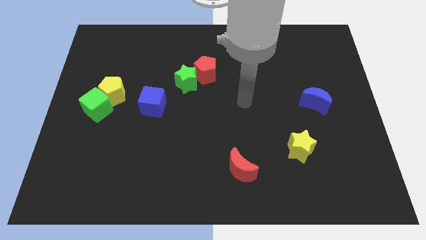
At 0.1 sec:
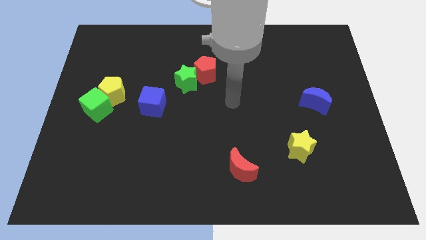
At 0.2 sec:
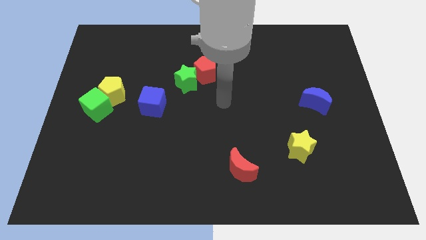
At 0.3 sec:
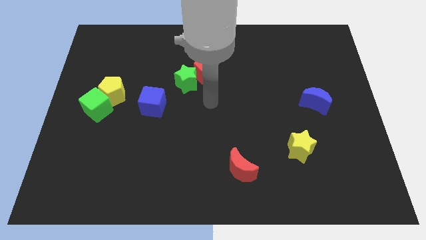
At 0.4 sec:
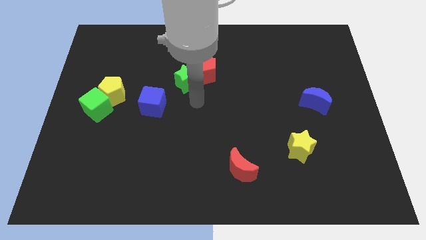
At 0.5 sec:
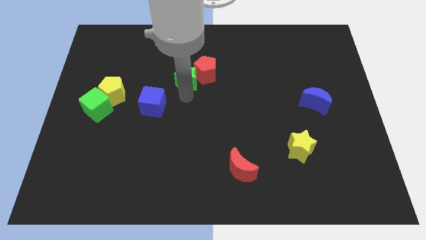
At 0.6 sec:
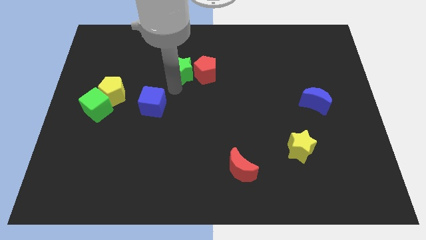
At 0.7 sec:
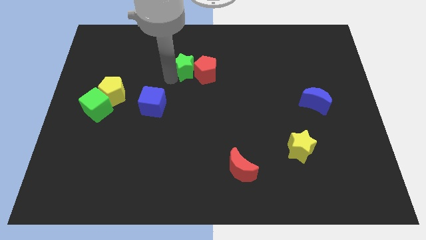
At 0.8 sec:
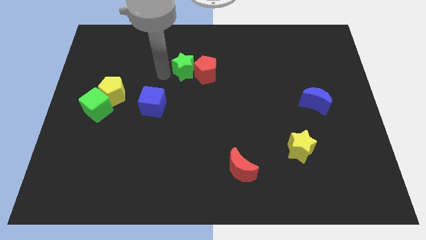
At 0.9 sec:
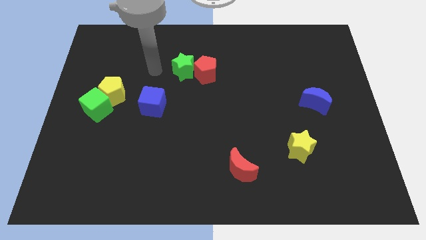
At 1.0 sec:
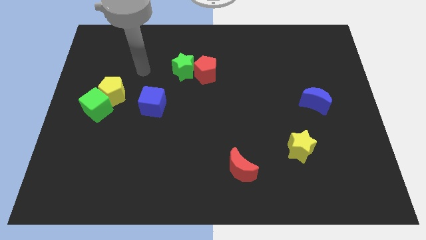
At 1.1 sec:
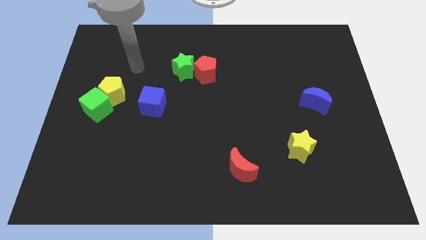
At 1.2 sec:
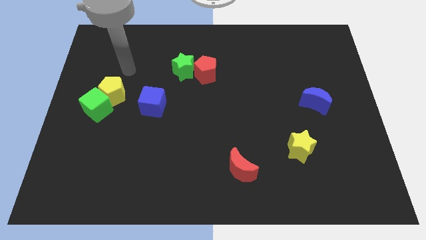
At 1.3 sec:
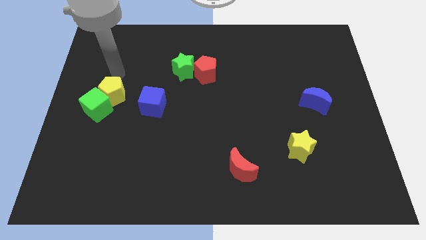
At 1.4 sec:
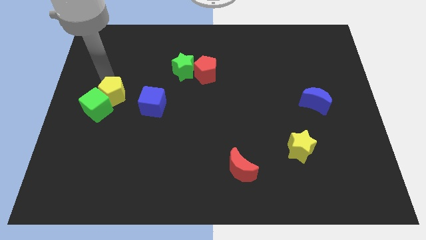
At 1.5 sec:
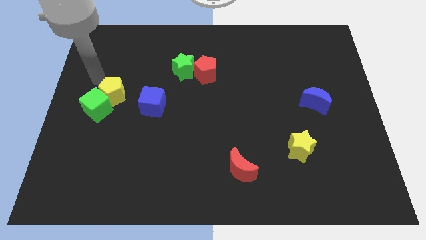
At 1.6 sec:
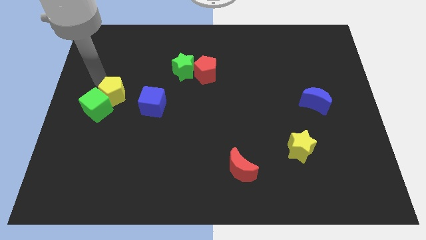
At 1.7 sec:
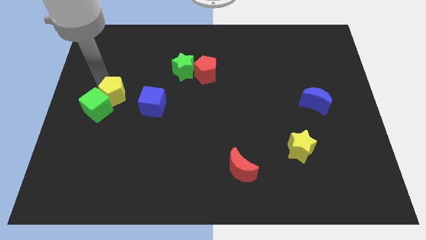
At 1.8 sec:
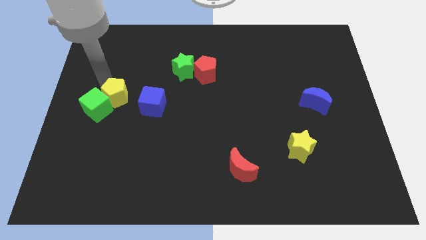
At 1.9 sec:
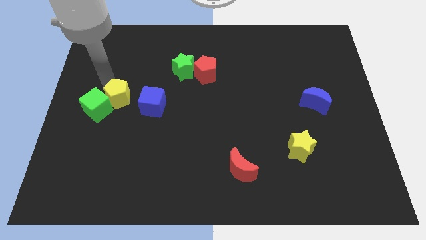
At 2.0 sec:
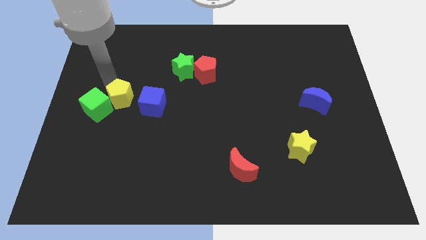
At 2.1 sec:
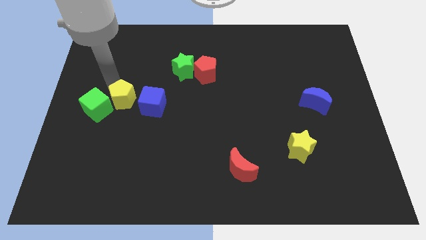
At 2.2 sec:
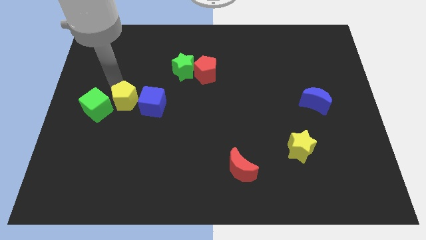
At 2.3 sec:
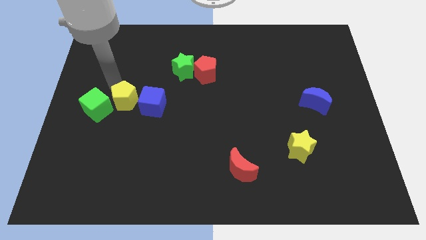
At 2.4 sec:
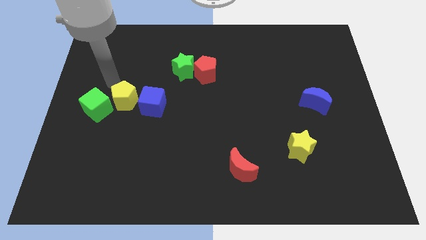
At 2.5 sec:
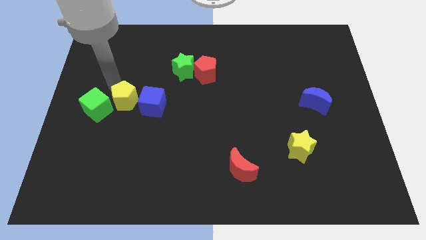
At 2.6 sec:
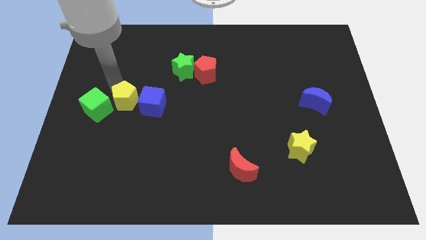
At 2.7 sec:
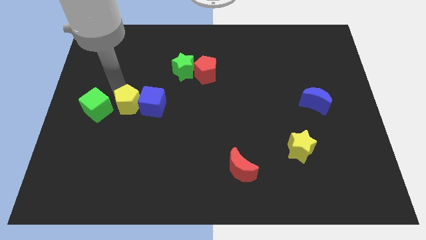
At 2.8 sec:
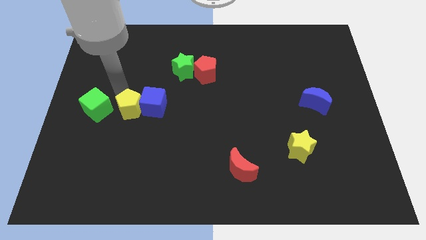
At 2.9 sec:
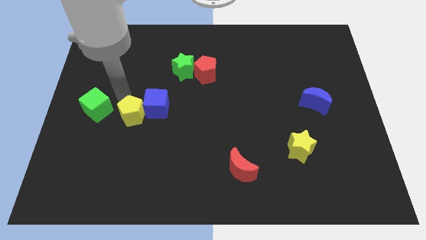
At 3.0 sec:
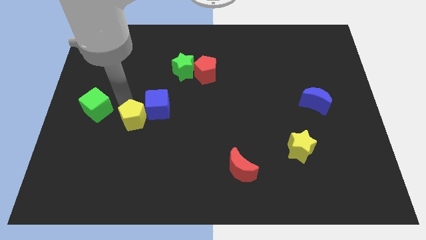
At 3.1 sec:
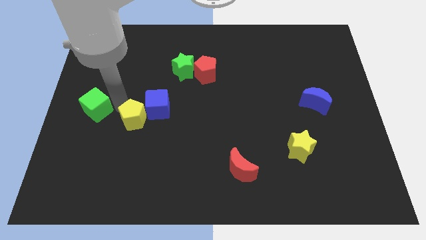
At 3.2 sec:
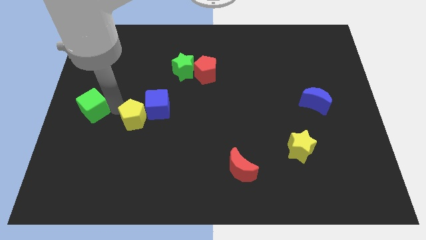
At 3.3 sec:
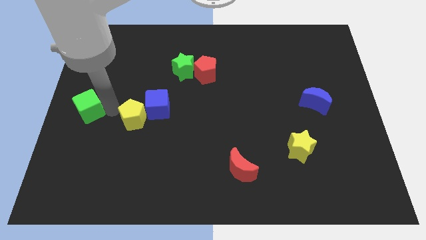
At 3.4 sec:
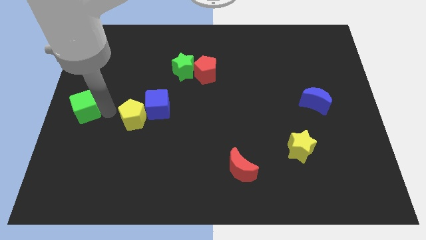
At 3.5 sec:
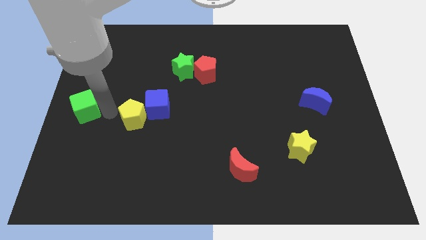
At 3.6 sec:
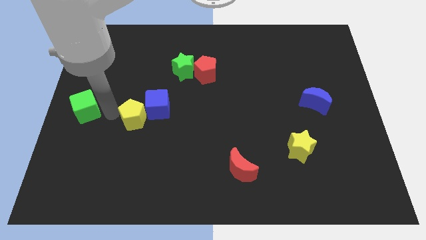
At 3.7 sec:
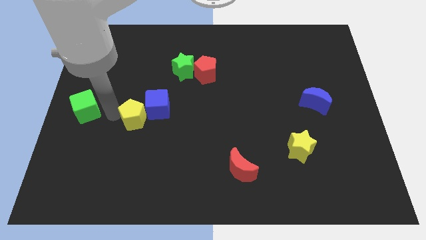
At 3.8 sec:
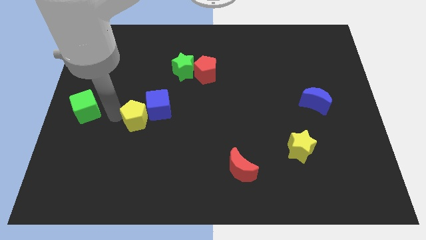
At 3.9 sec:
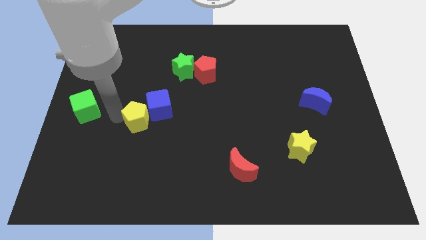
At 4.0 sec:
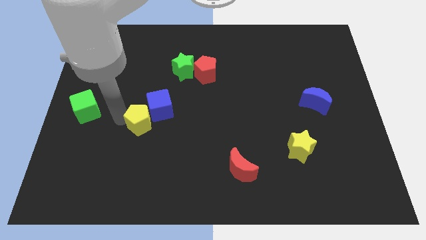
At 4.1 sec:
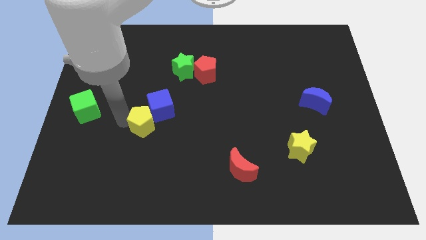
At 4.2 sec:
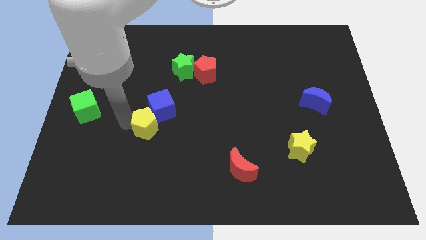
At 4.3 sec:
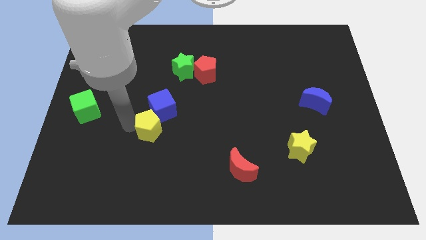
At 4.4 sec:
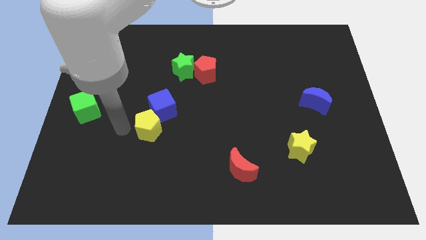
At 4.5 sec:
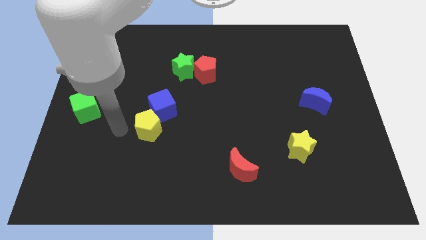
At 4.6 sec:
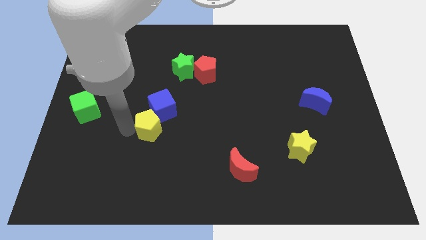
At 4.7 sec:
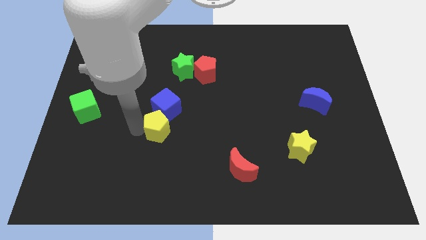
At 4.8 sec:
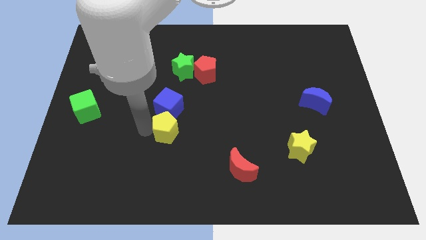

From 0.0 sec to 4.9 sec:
push the yellow pentagon to the bottom right side of the blue cube
